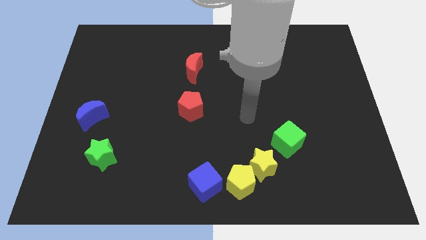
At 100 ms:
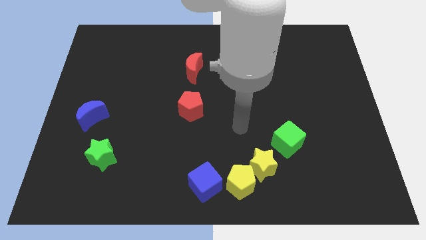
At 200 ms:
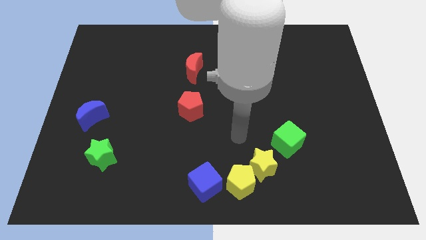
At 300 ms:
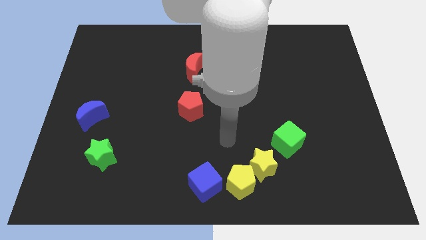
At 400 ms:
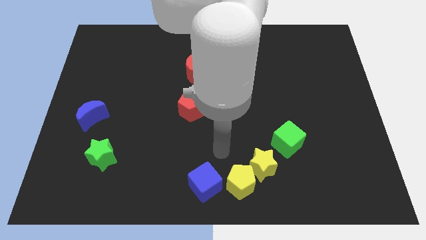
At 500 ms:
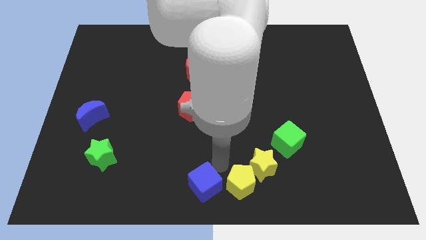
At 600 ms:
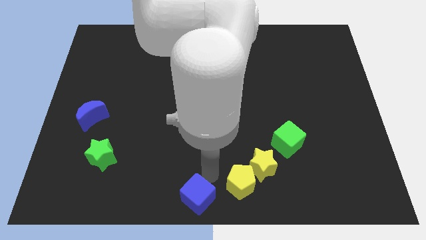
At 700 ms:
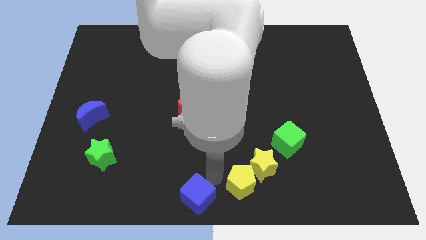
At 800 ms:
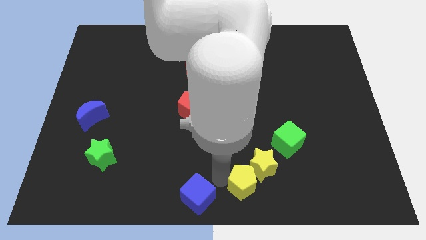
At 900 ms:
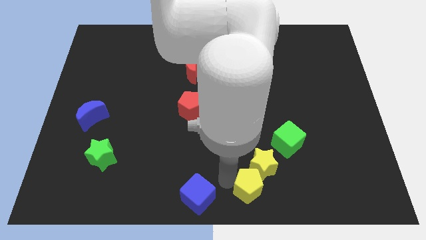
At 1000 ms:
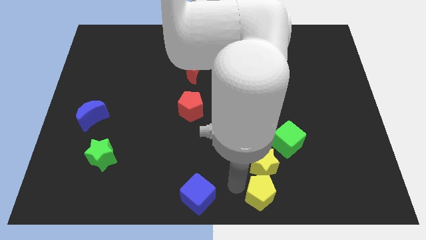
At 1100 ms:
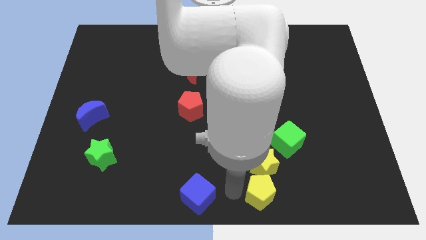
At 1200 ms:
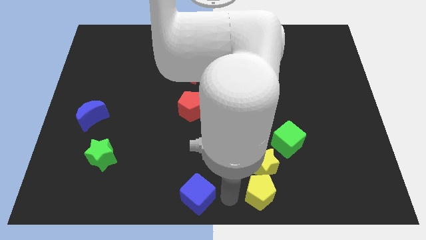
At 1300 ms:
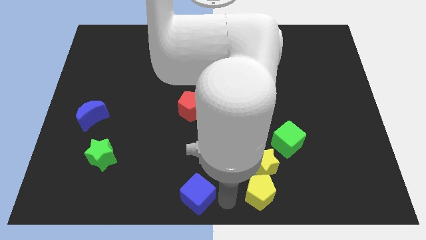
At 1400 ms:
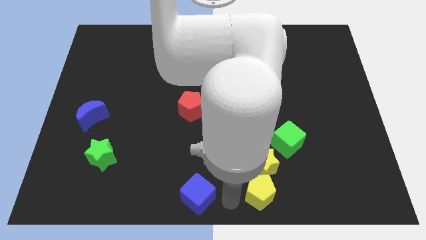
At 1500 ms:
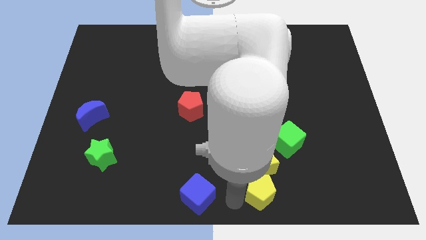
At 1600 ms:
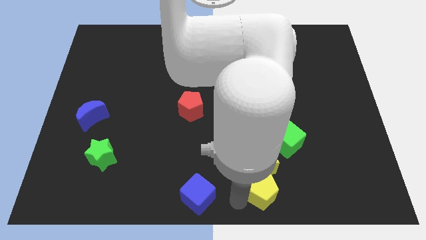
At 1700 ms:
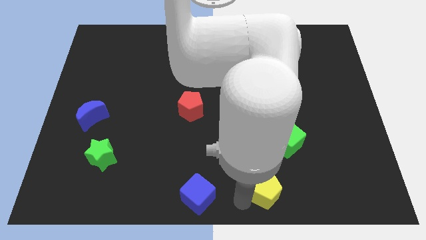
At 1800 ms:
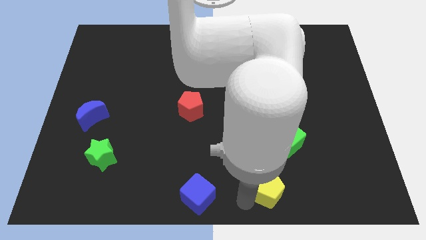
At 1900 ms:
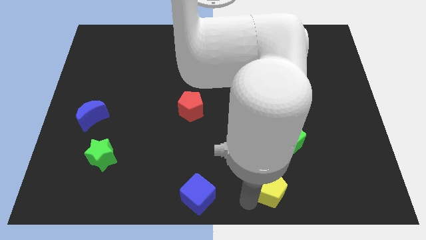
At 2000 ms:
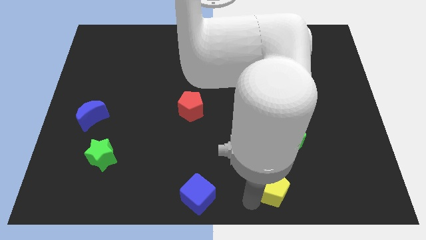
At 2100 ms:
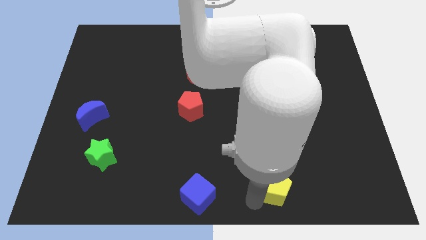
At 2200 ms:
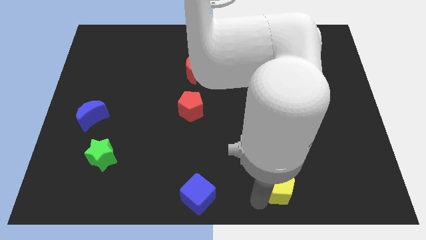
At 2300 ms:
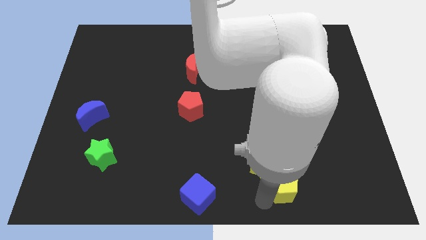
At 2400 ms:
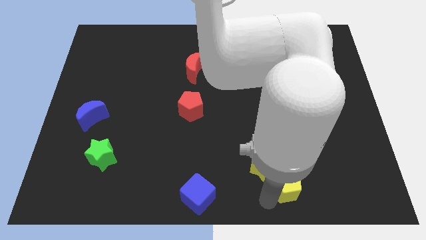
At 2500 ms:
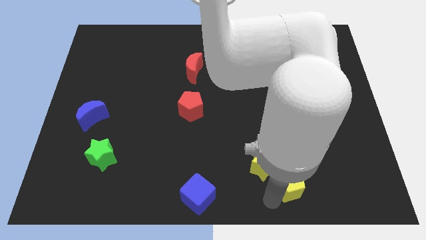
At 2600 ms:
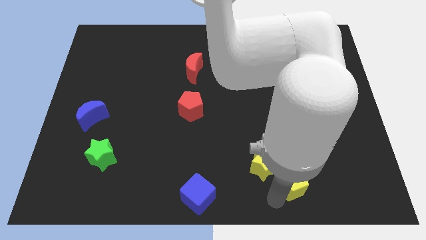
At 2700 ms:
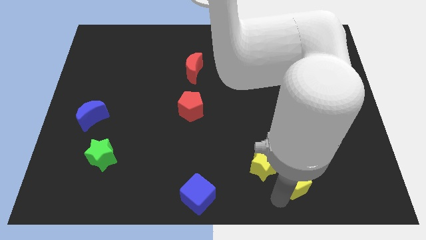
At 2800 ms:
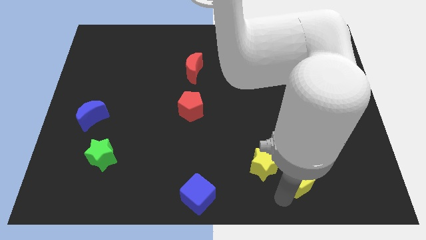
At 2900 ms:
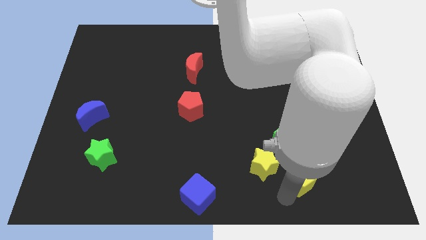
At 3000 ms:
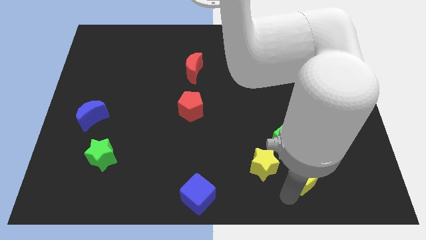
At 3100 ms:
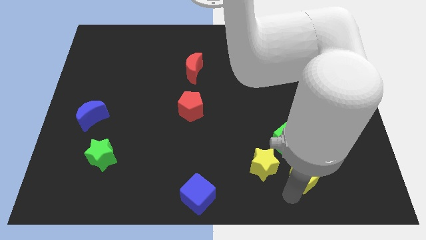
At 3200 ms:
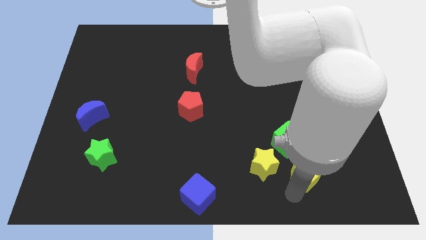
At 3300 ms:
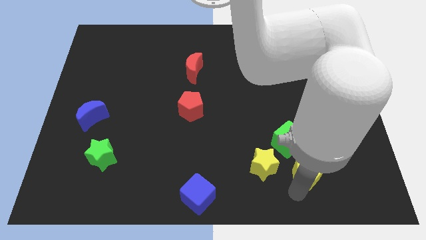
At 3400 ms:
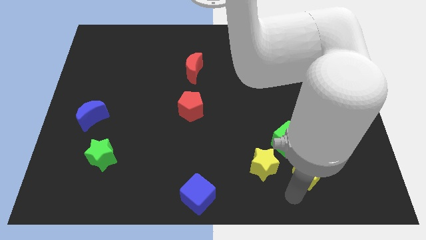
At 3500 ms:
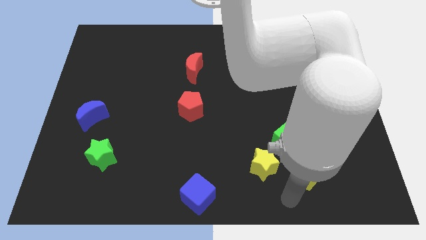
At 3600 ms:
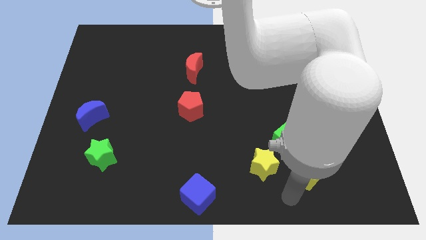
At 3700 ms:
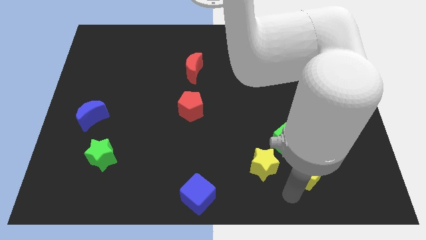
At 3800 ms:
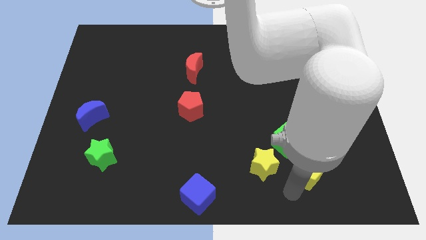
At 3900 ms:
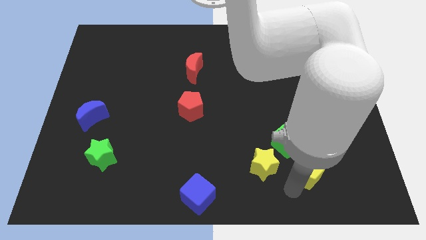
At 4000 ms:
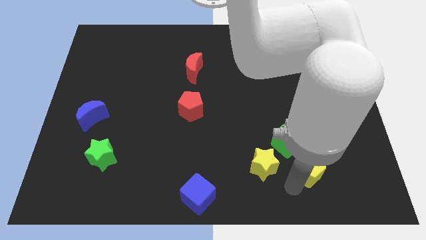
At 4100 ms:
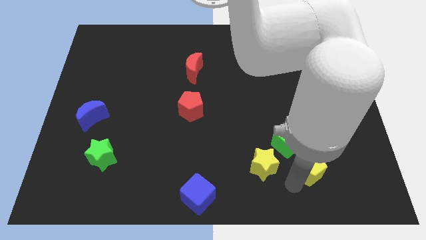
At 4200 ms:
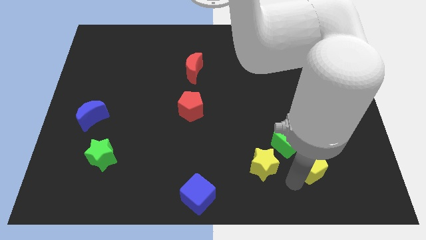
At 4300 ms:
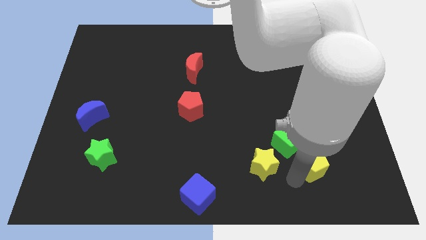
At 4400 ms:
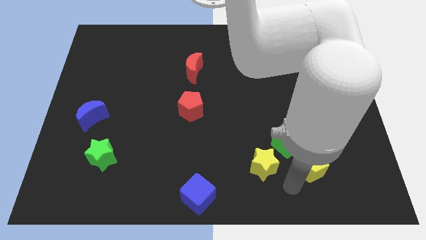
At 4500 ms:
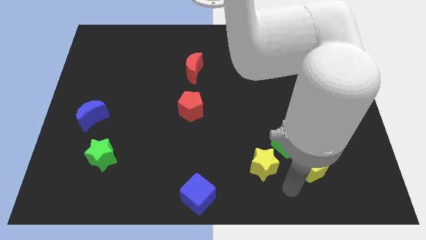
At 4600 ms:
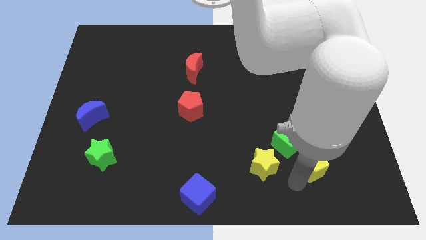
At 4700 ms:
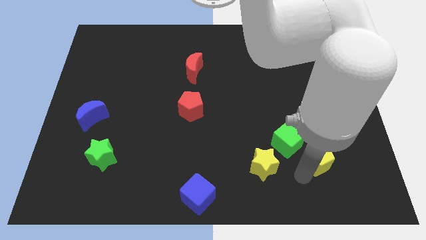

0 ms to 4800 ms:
put the yellow pentagon to the right of the green cube

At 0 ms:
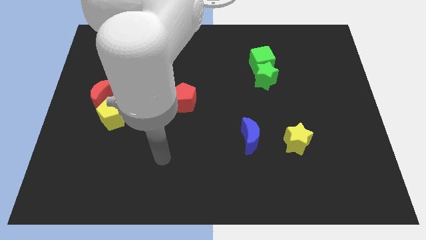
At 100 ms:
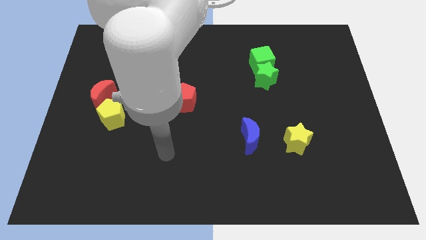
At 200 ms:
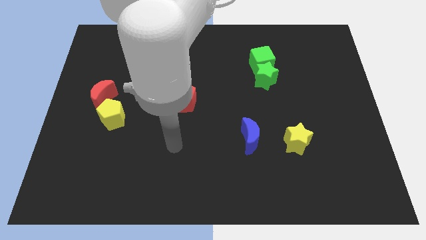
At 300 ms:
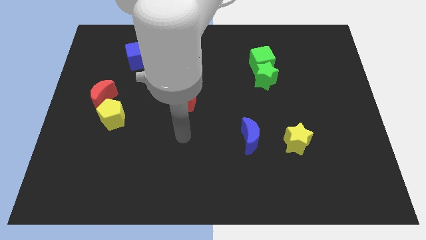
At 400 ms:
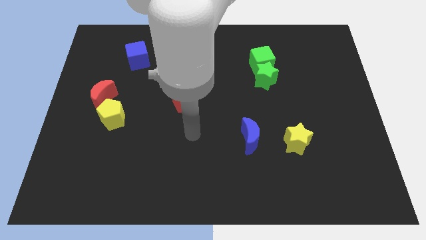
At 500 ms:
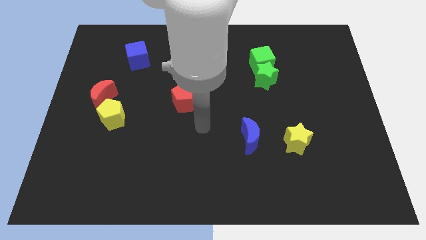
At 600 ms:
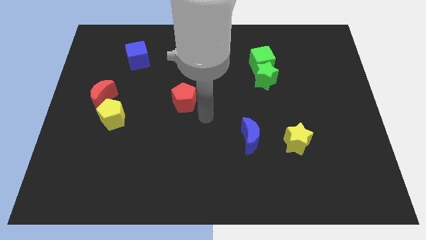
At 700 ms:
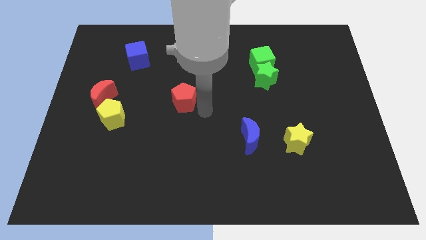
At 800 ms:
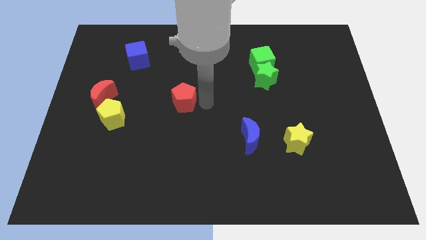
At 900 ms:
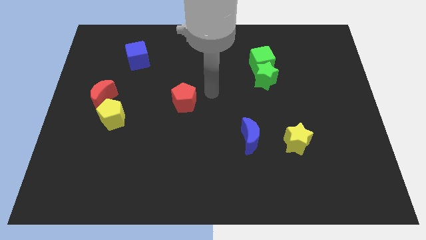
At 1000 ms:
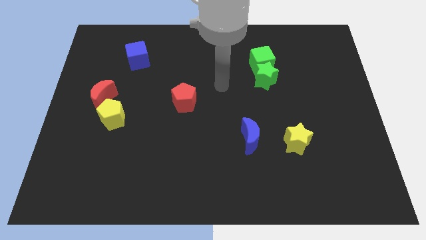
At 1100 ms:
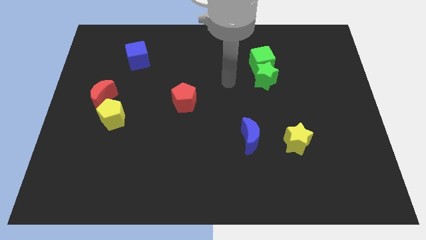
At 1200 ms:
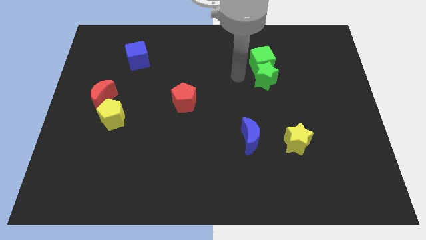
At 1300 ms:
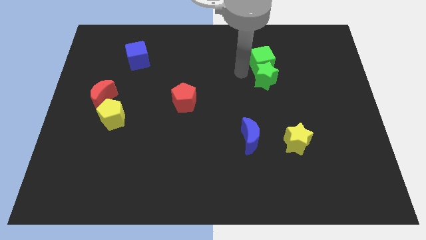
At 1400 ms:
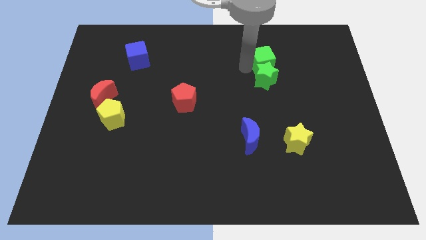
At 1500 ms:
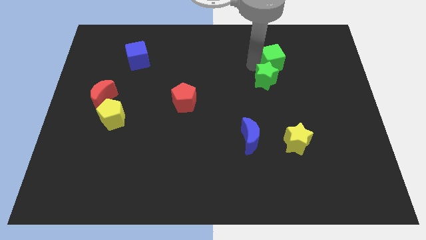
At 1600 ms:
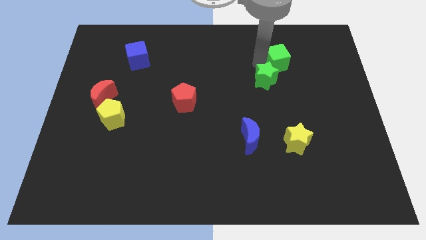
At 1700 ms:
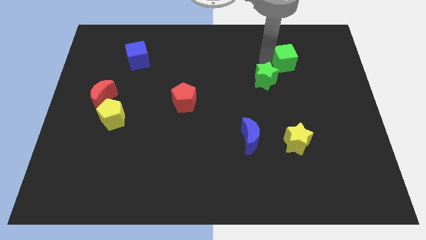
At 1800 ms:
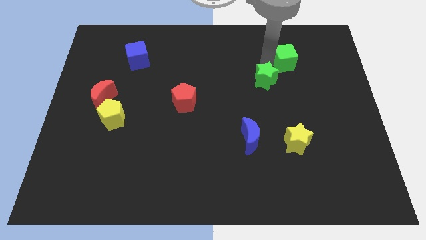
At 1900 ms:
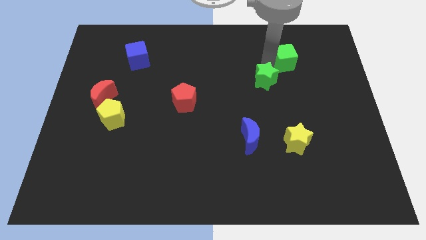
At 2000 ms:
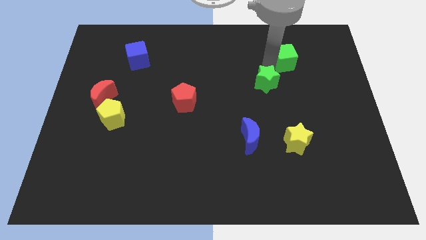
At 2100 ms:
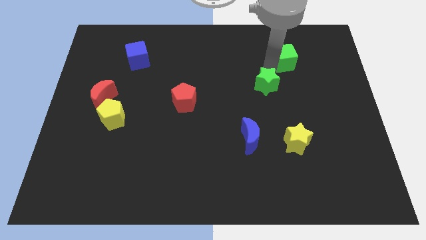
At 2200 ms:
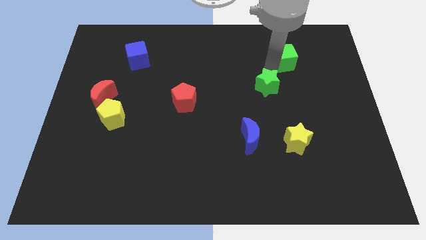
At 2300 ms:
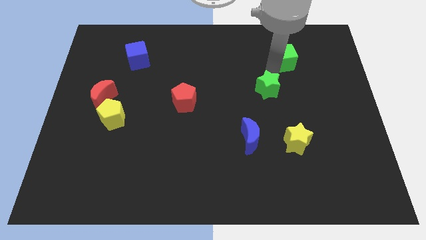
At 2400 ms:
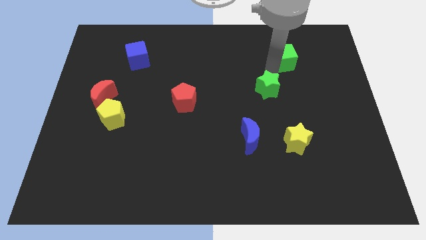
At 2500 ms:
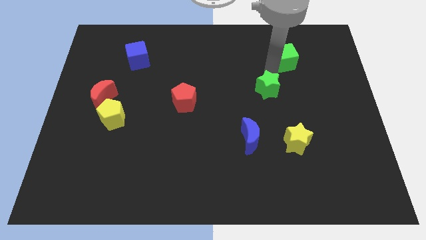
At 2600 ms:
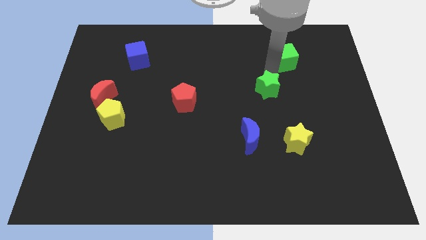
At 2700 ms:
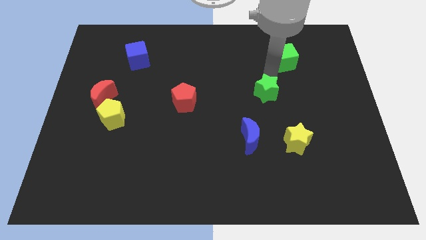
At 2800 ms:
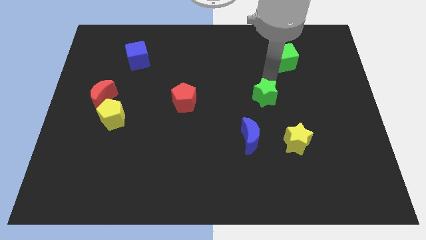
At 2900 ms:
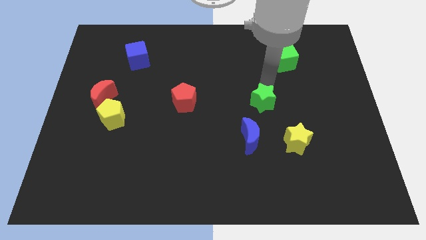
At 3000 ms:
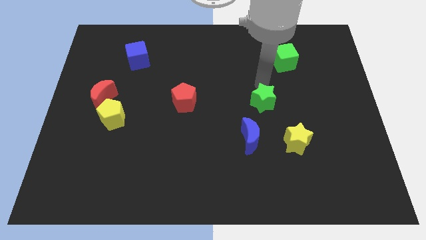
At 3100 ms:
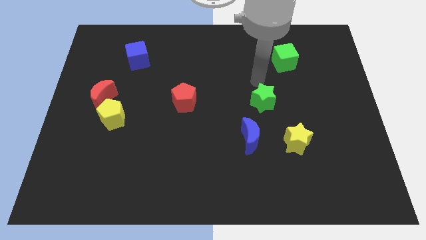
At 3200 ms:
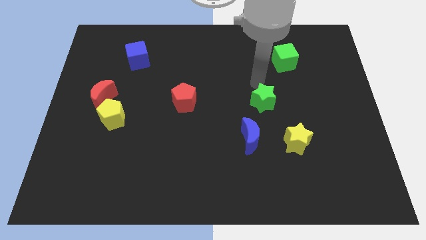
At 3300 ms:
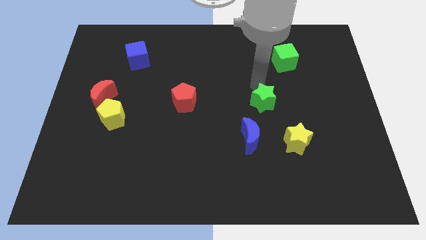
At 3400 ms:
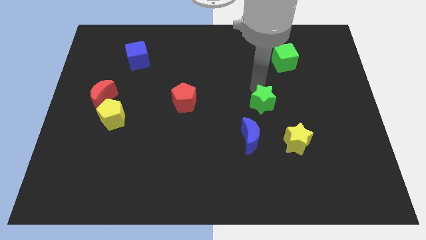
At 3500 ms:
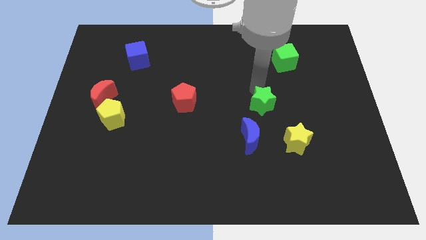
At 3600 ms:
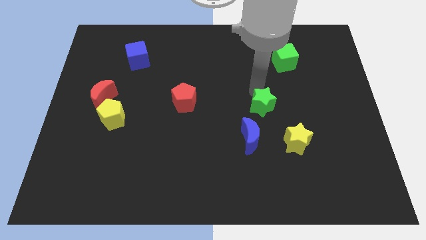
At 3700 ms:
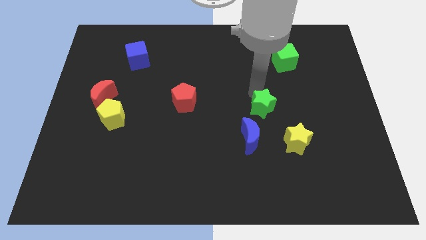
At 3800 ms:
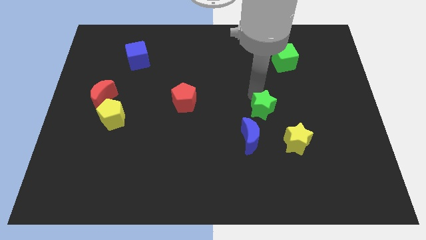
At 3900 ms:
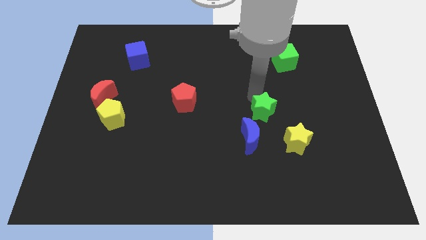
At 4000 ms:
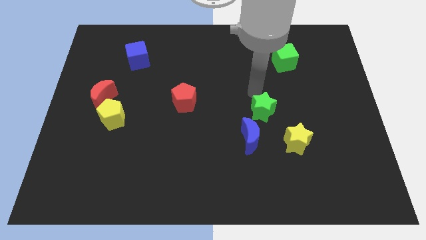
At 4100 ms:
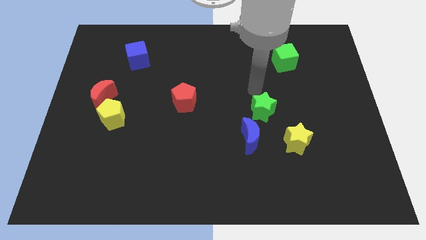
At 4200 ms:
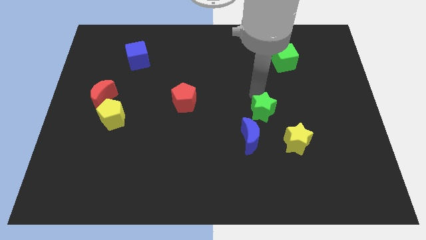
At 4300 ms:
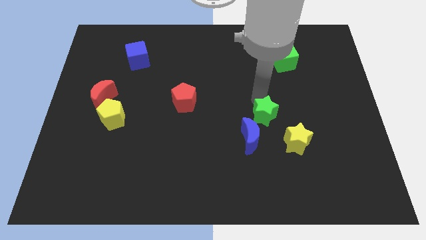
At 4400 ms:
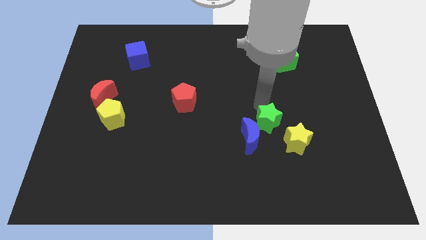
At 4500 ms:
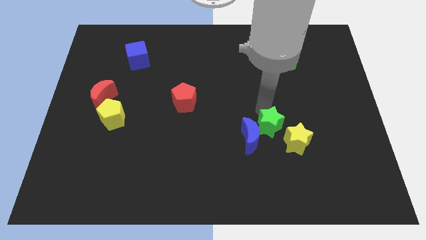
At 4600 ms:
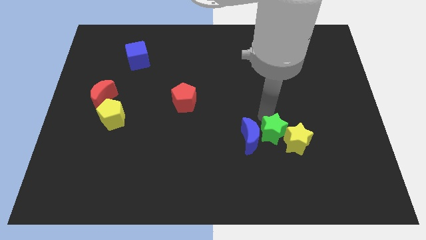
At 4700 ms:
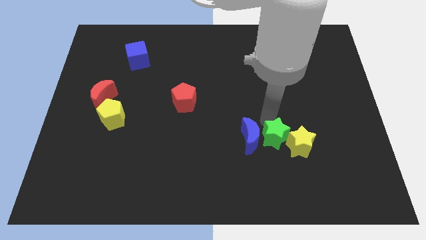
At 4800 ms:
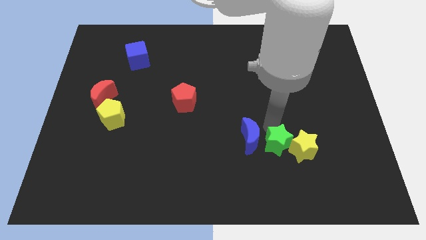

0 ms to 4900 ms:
put the green star to the bottom left of the yellow star
